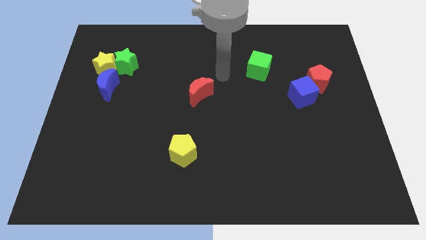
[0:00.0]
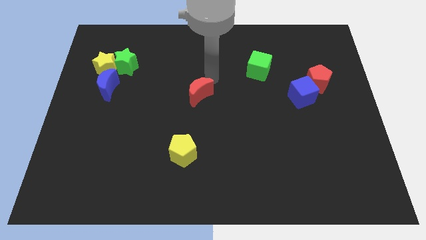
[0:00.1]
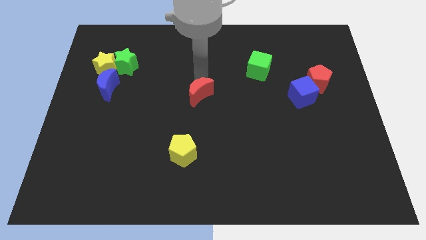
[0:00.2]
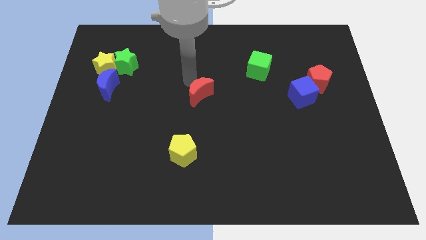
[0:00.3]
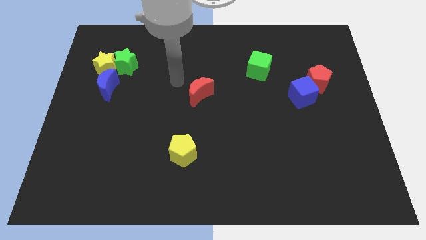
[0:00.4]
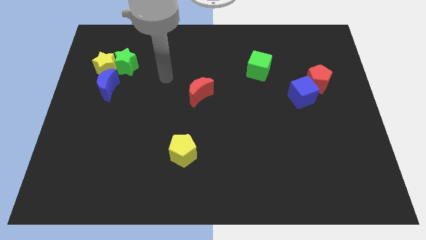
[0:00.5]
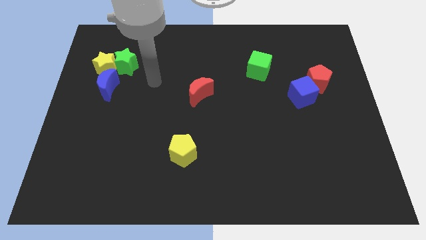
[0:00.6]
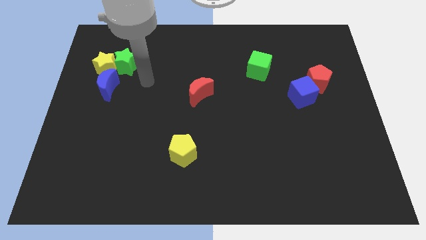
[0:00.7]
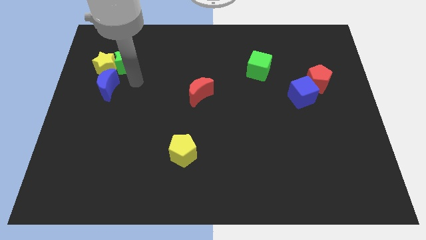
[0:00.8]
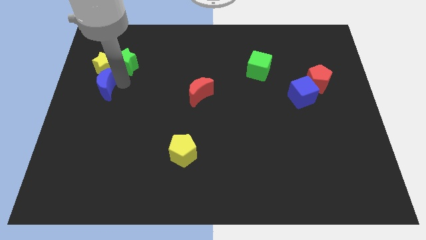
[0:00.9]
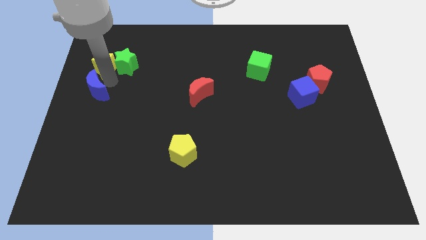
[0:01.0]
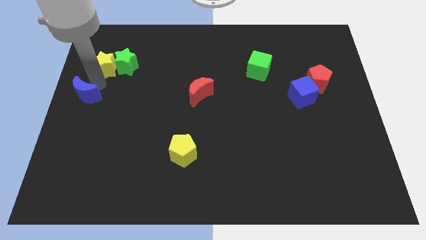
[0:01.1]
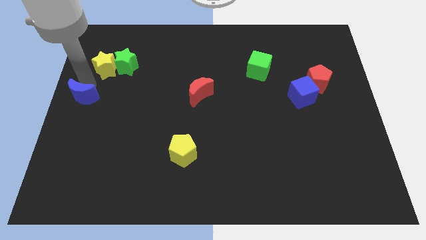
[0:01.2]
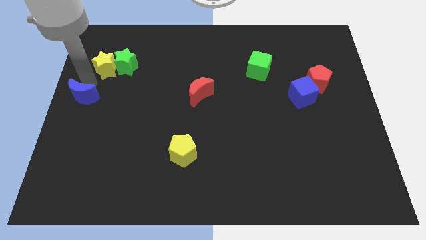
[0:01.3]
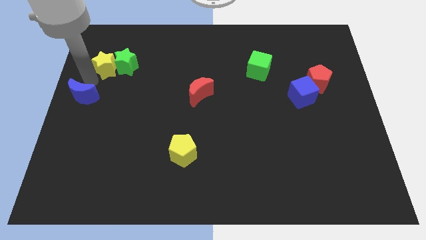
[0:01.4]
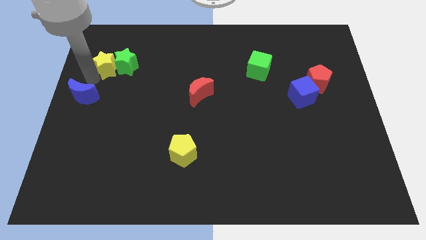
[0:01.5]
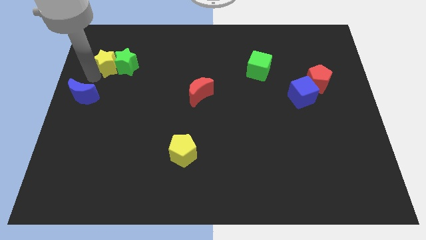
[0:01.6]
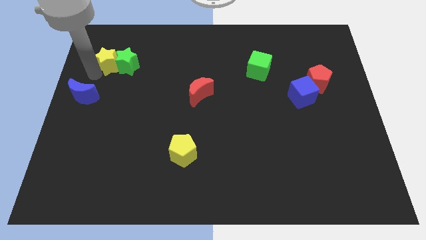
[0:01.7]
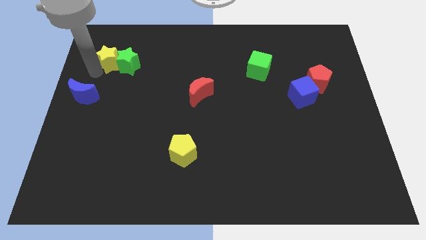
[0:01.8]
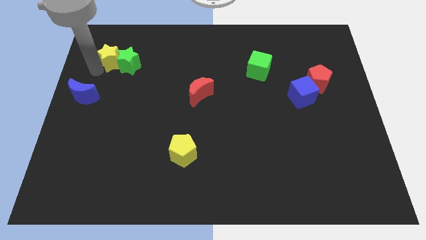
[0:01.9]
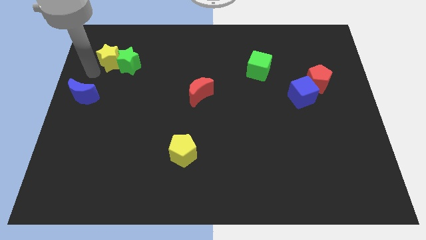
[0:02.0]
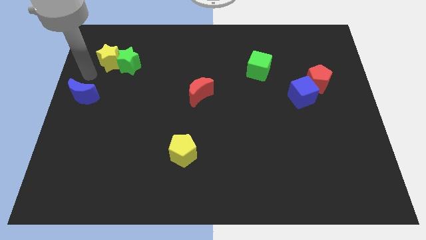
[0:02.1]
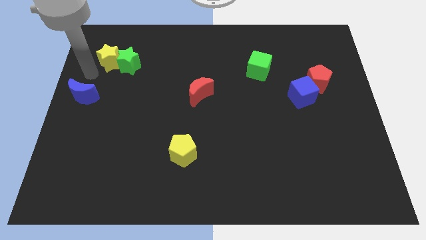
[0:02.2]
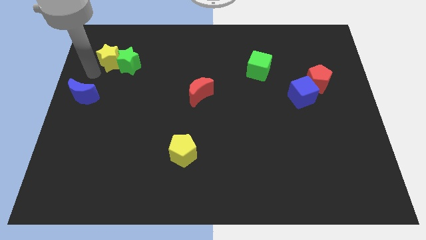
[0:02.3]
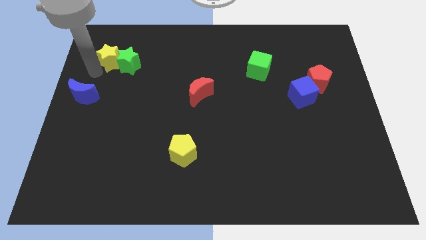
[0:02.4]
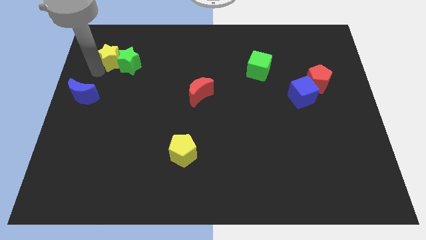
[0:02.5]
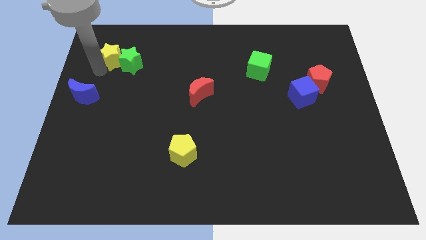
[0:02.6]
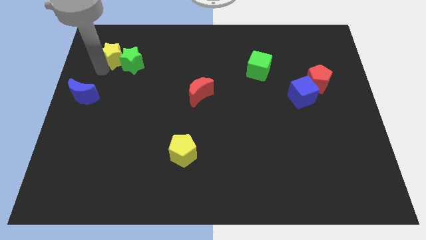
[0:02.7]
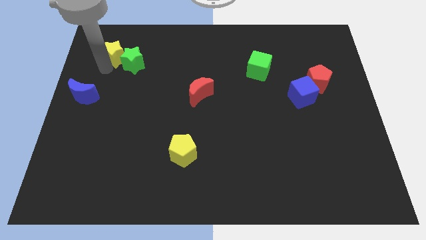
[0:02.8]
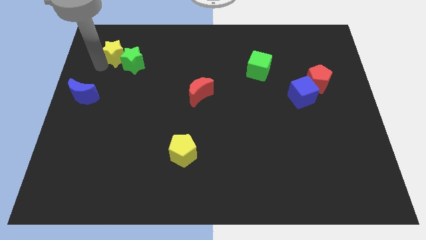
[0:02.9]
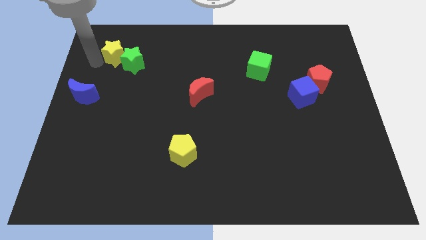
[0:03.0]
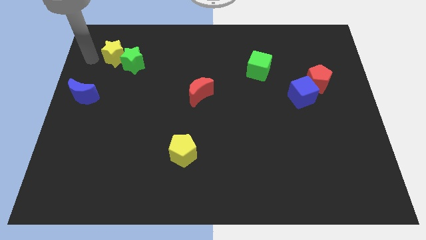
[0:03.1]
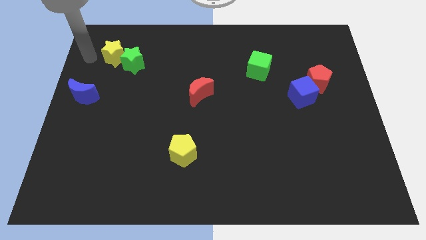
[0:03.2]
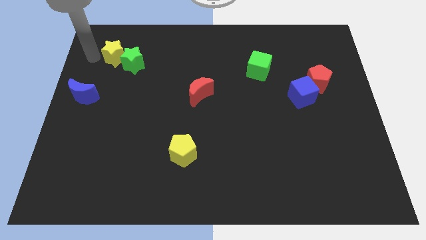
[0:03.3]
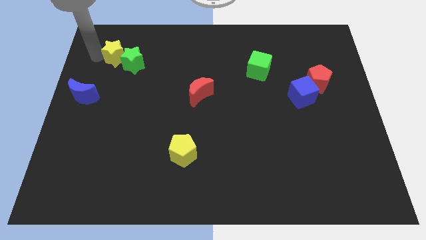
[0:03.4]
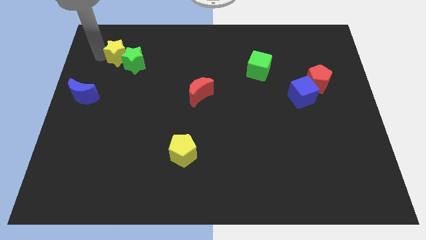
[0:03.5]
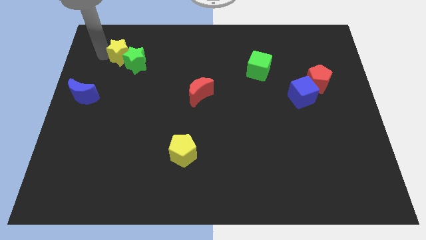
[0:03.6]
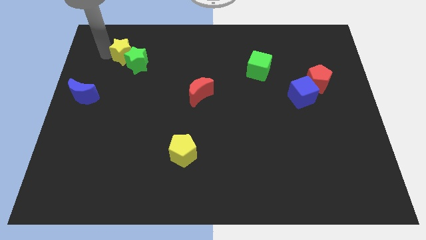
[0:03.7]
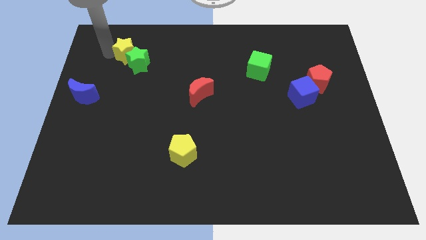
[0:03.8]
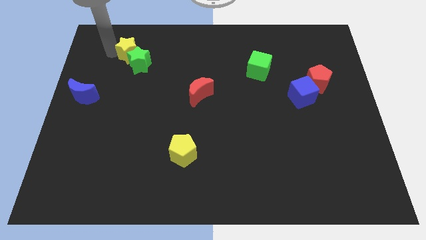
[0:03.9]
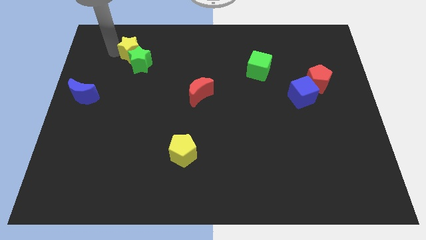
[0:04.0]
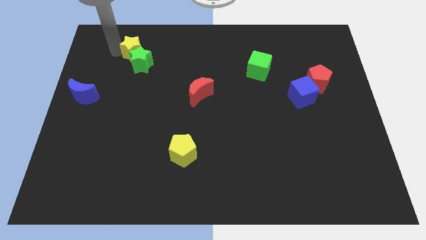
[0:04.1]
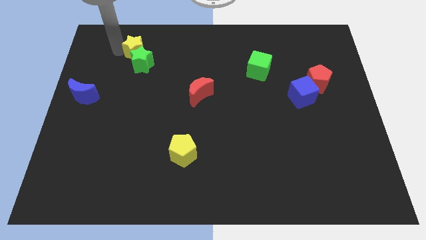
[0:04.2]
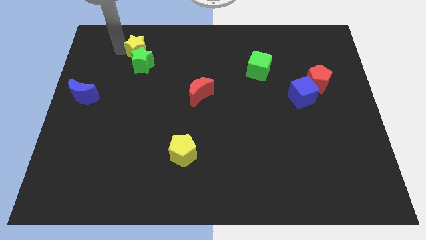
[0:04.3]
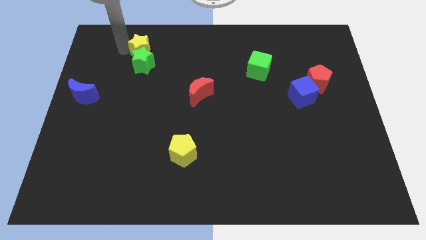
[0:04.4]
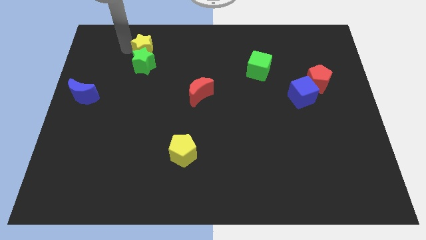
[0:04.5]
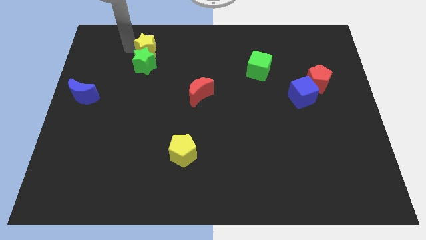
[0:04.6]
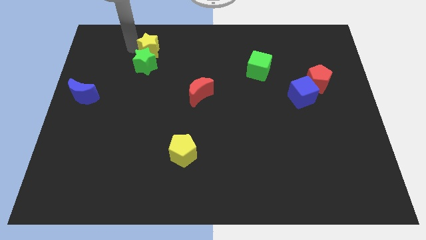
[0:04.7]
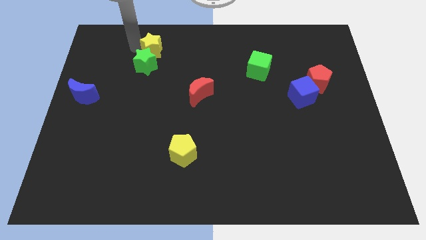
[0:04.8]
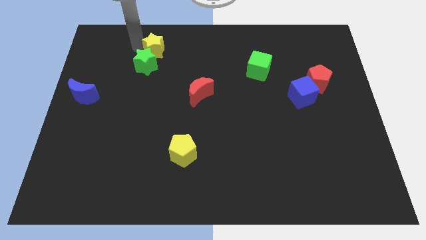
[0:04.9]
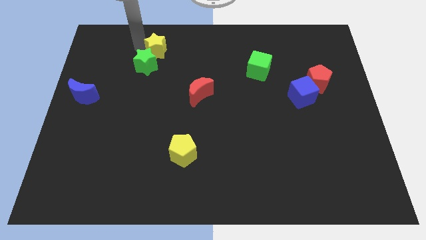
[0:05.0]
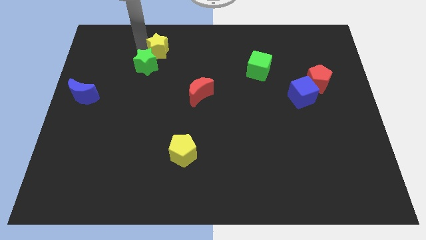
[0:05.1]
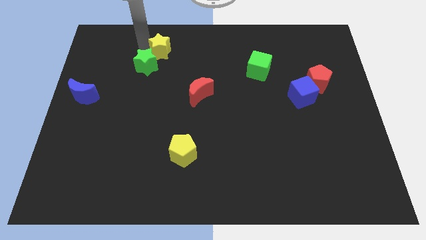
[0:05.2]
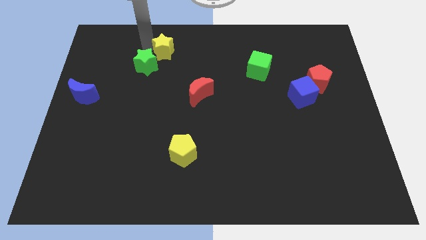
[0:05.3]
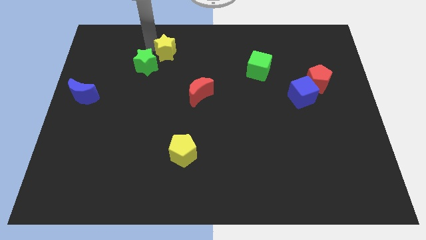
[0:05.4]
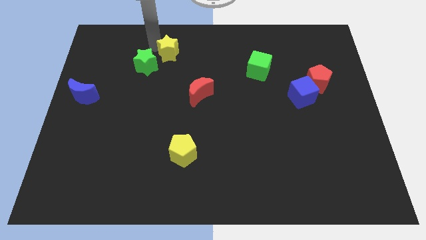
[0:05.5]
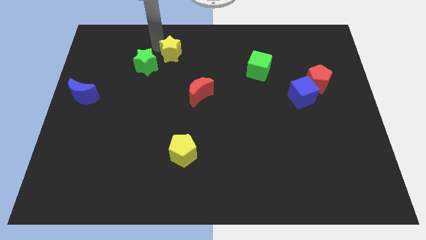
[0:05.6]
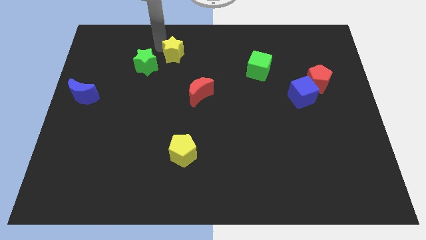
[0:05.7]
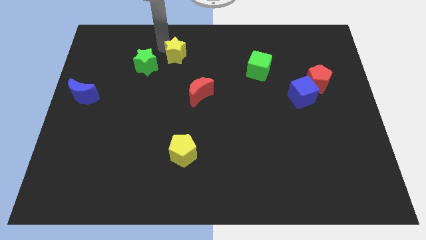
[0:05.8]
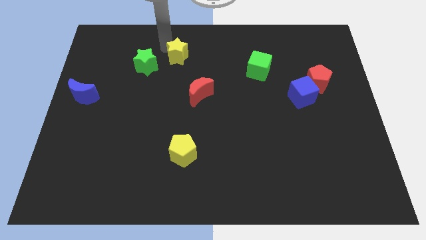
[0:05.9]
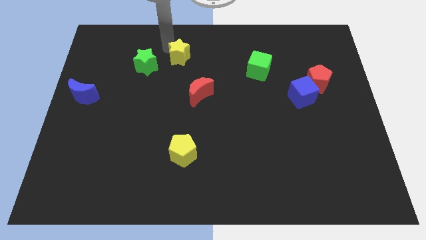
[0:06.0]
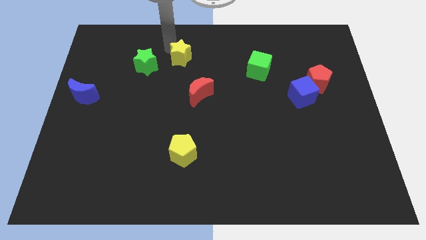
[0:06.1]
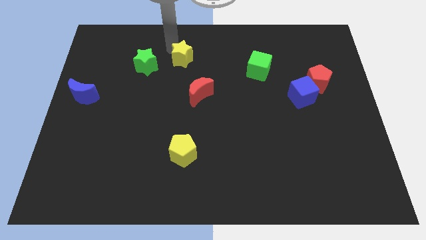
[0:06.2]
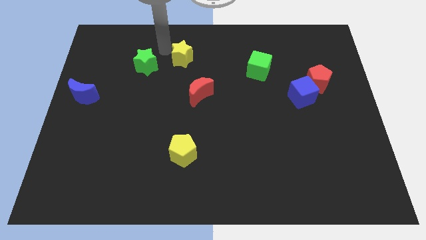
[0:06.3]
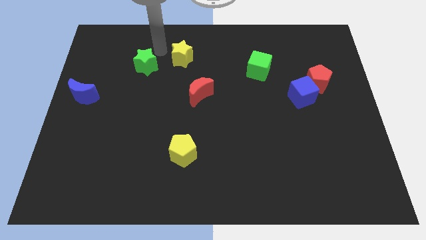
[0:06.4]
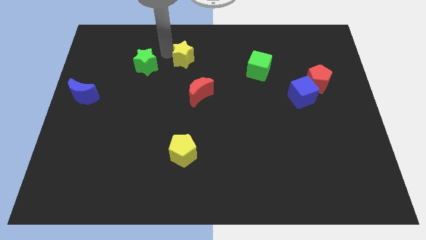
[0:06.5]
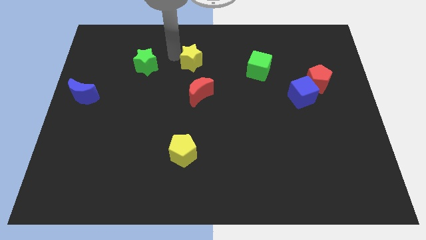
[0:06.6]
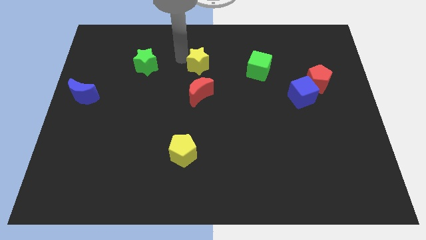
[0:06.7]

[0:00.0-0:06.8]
push the yellow star to the left of the green cube
